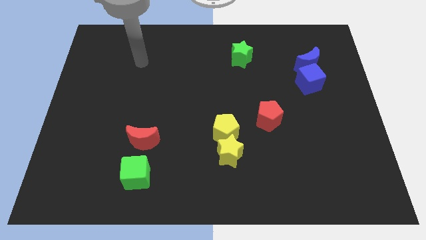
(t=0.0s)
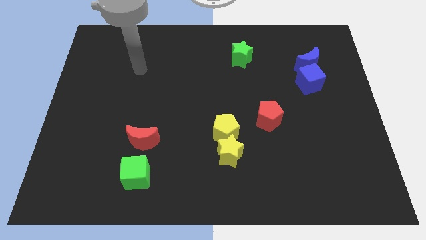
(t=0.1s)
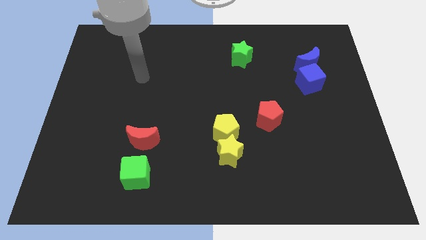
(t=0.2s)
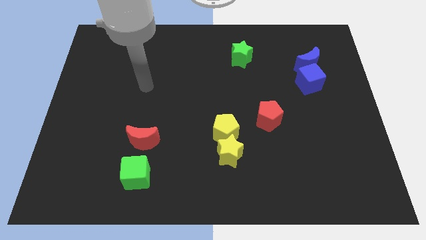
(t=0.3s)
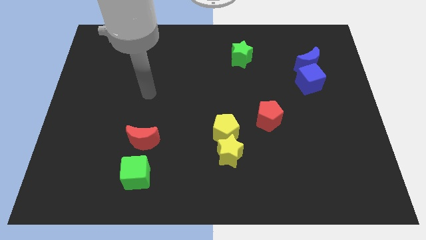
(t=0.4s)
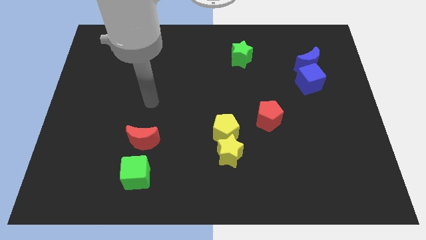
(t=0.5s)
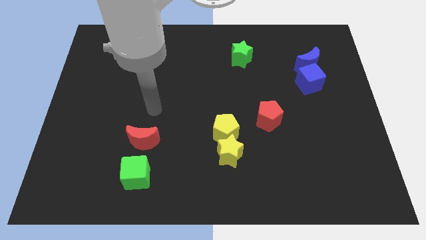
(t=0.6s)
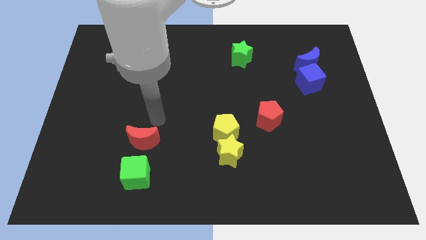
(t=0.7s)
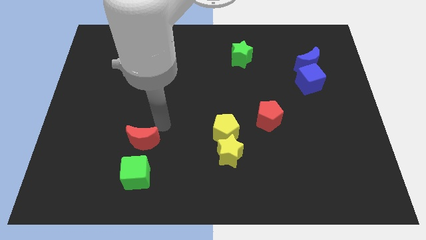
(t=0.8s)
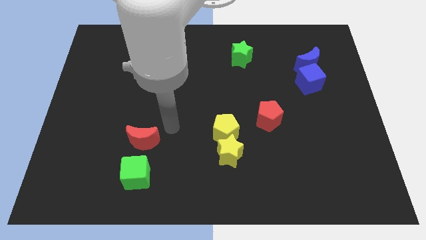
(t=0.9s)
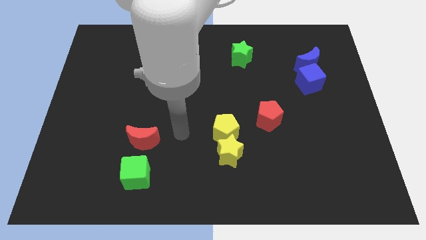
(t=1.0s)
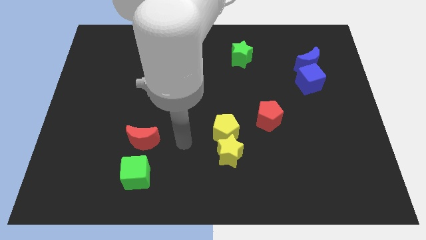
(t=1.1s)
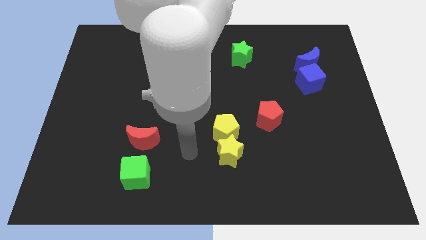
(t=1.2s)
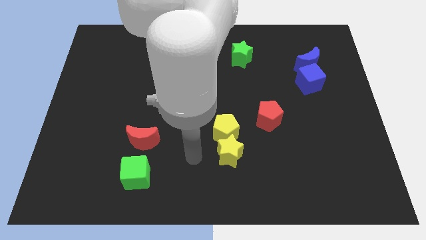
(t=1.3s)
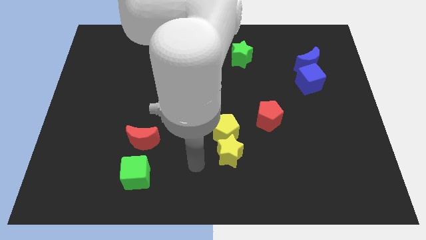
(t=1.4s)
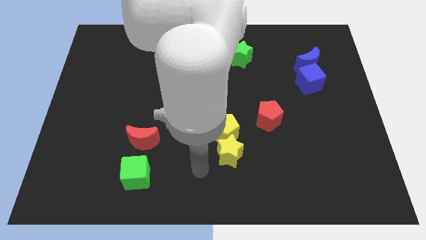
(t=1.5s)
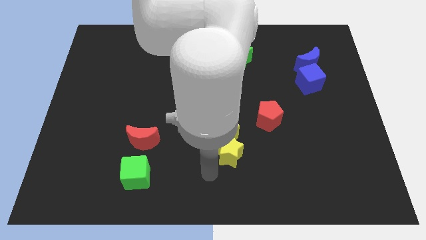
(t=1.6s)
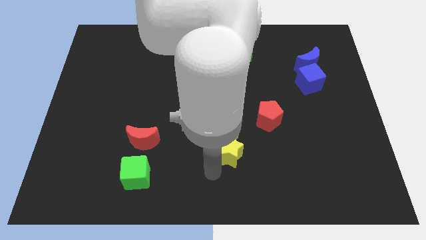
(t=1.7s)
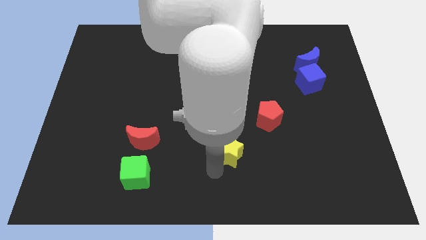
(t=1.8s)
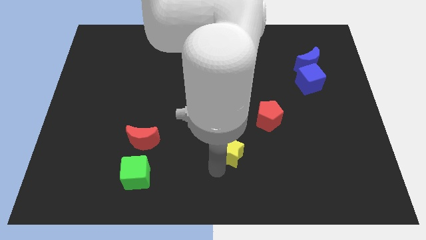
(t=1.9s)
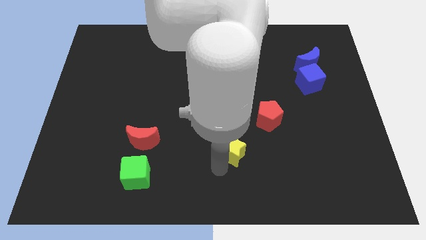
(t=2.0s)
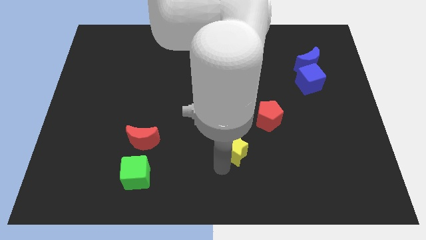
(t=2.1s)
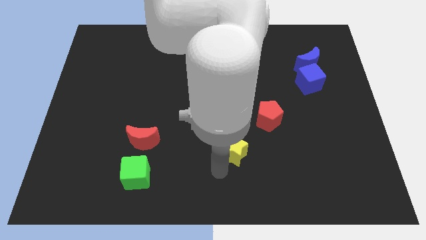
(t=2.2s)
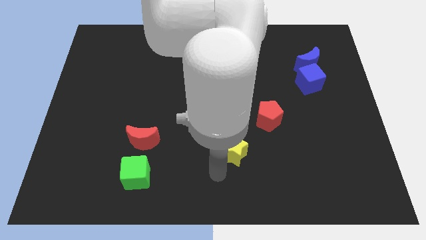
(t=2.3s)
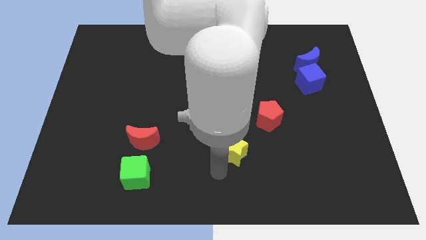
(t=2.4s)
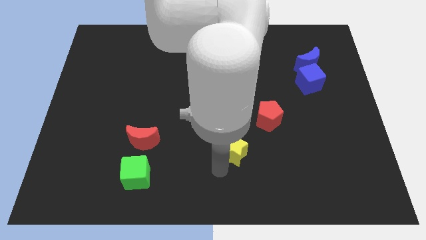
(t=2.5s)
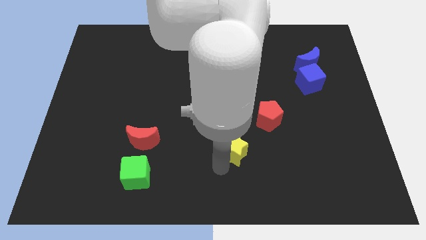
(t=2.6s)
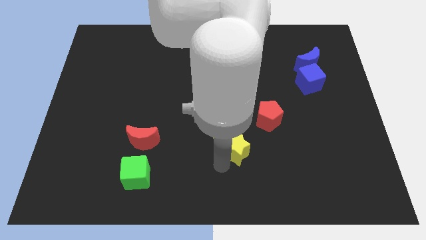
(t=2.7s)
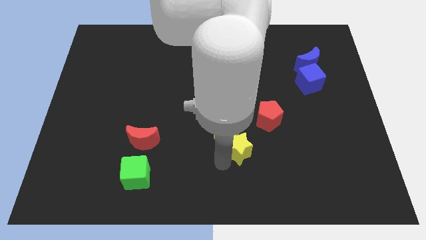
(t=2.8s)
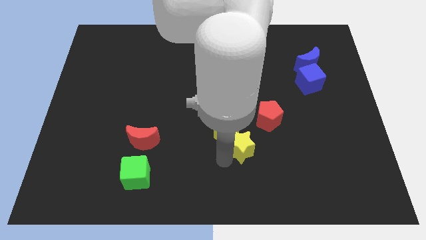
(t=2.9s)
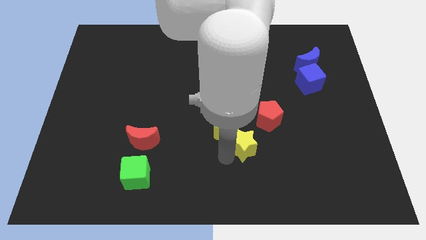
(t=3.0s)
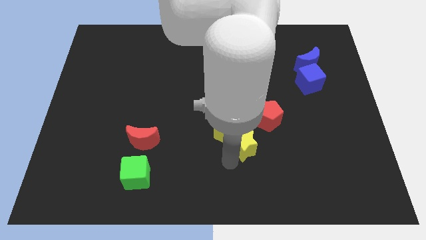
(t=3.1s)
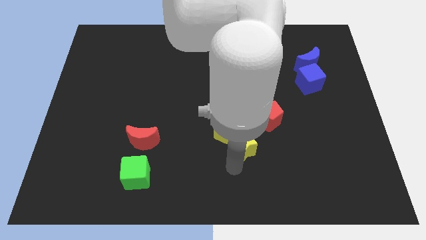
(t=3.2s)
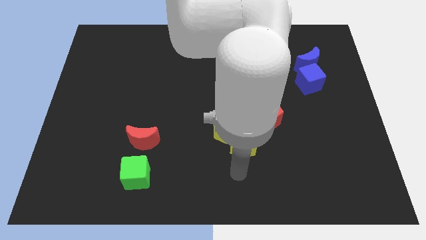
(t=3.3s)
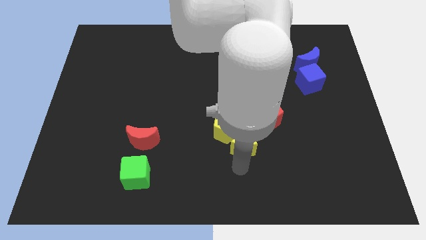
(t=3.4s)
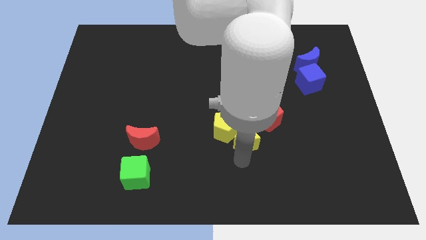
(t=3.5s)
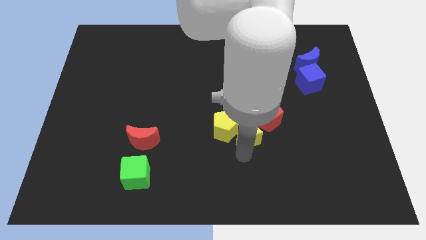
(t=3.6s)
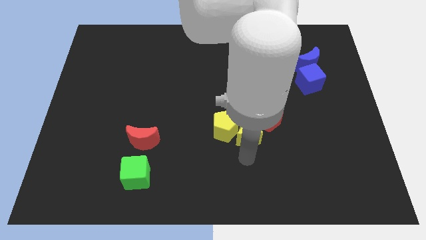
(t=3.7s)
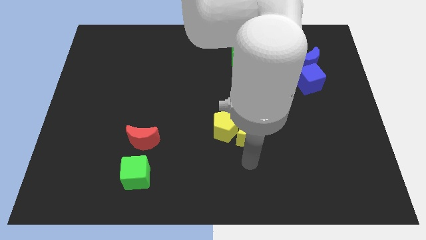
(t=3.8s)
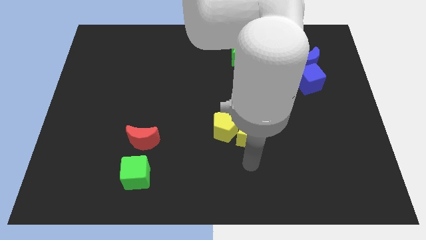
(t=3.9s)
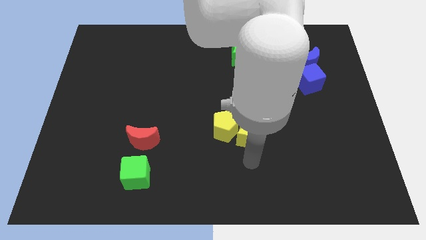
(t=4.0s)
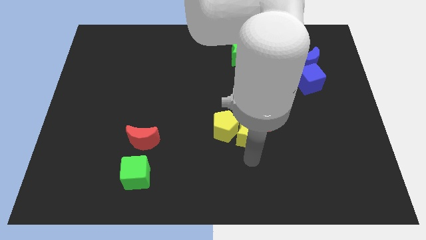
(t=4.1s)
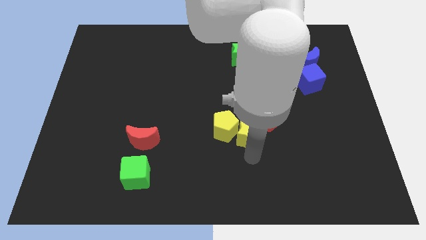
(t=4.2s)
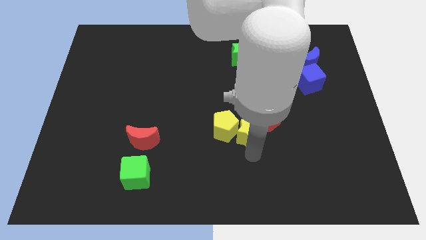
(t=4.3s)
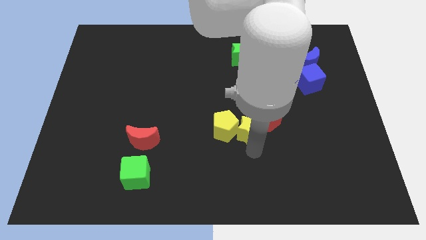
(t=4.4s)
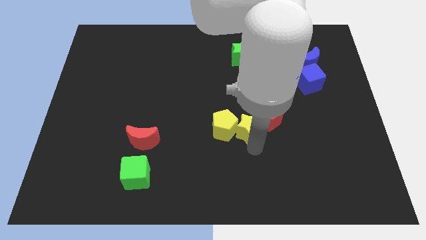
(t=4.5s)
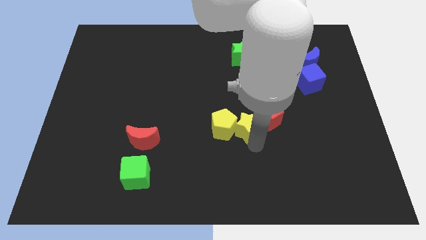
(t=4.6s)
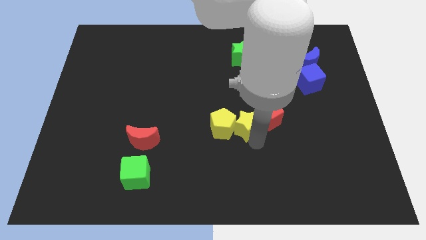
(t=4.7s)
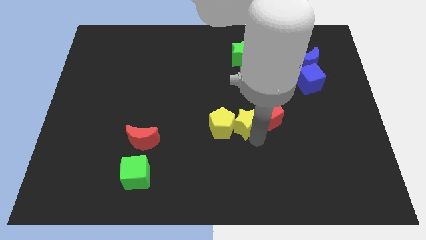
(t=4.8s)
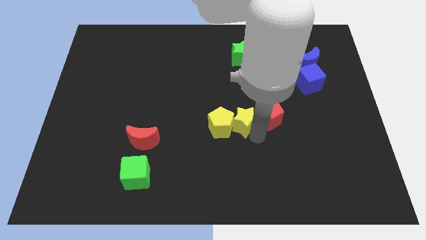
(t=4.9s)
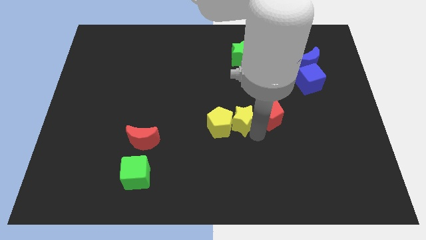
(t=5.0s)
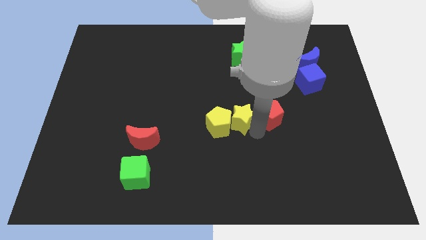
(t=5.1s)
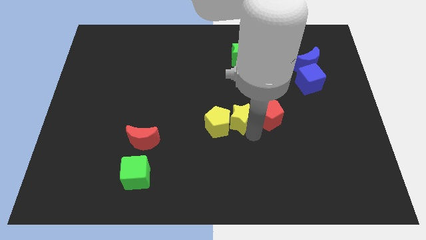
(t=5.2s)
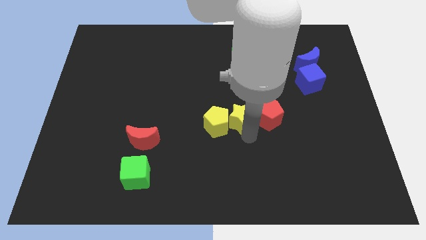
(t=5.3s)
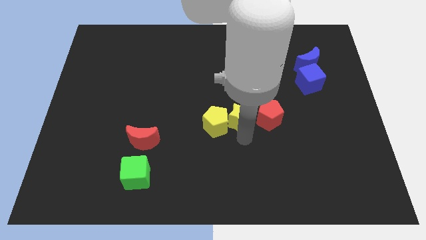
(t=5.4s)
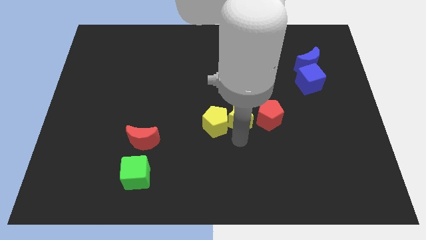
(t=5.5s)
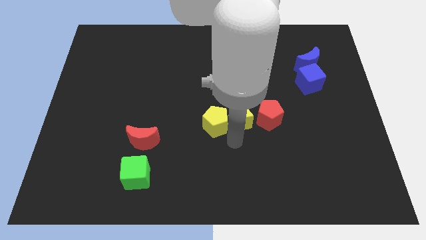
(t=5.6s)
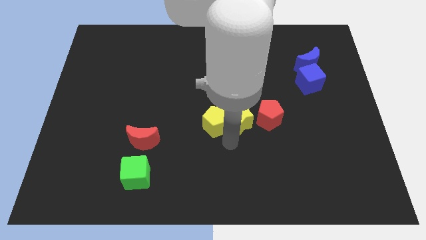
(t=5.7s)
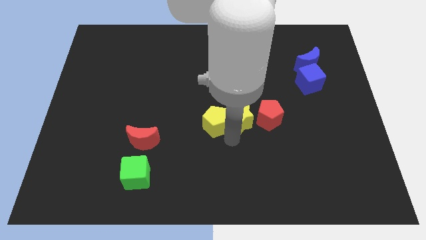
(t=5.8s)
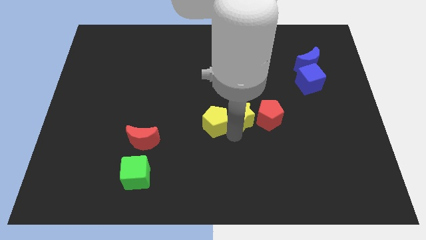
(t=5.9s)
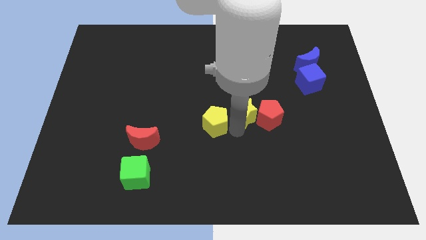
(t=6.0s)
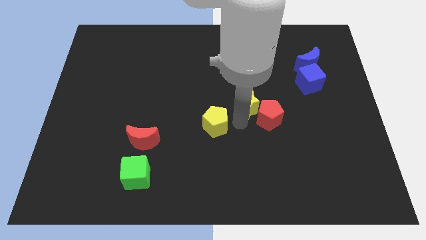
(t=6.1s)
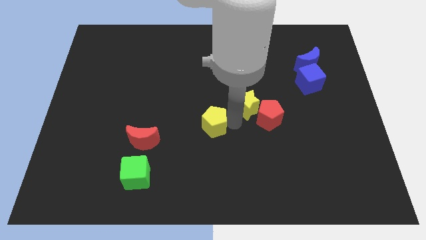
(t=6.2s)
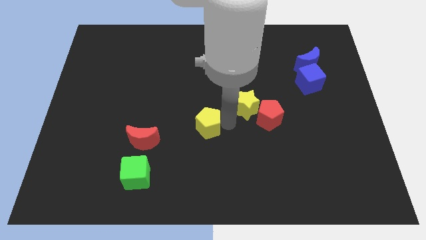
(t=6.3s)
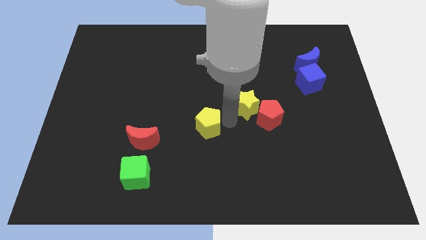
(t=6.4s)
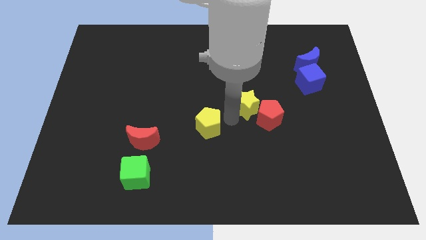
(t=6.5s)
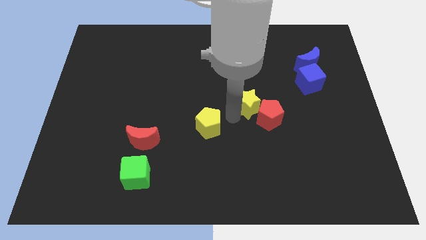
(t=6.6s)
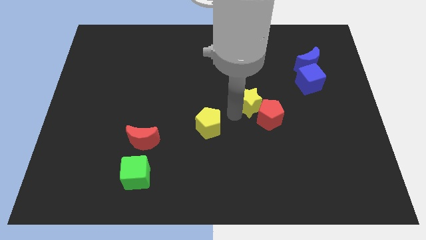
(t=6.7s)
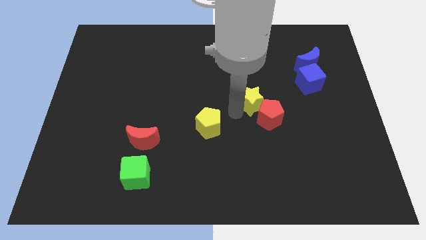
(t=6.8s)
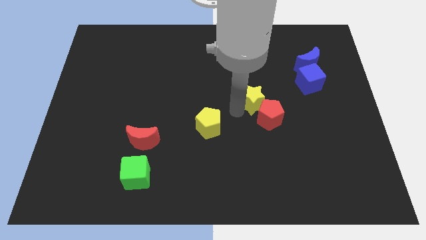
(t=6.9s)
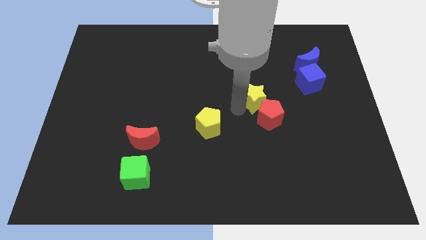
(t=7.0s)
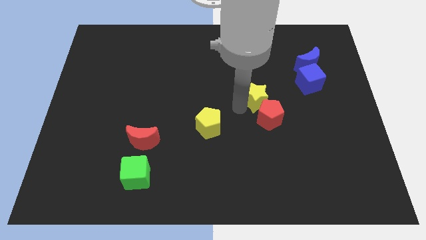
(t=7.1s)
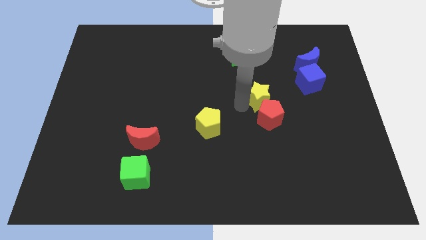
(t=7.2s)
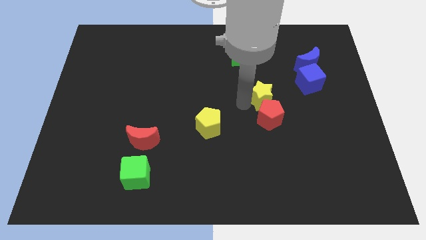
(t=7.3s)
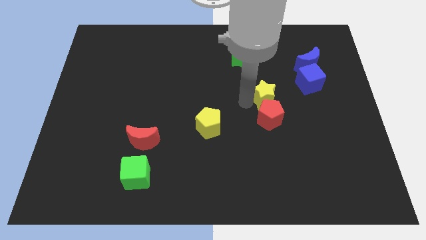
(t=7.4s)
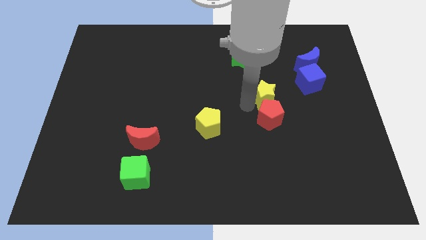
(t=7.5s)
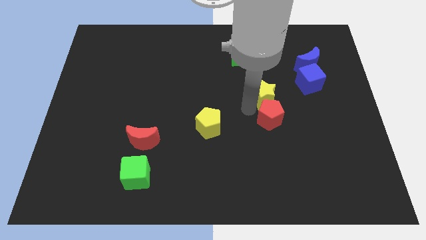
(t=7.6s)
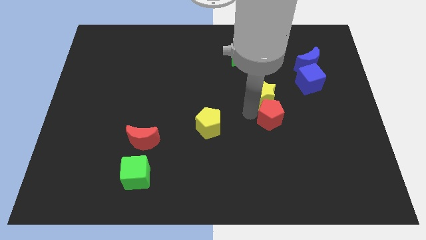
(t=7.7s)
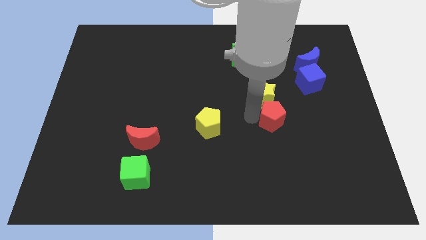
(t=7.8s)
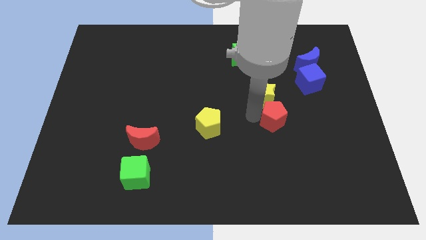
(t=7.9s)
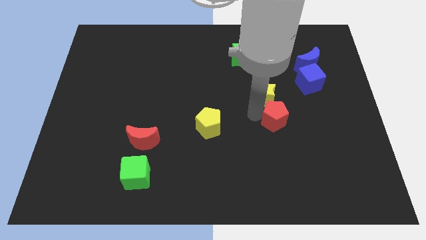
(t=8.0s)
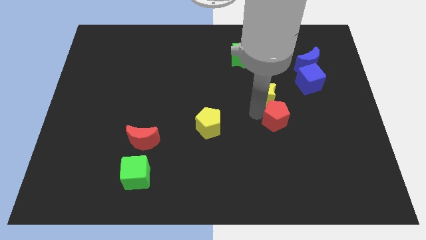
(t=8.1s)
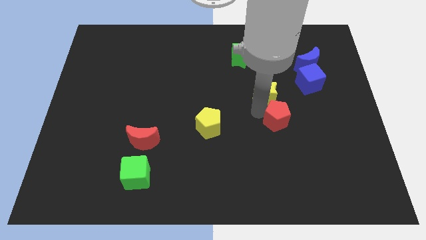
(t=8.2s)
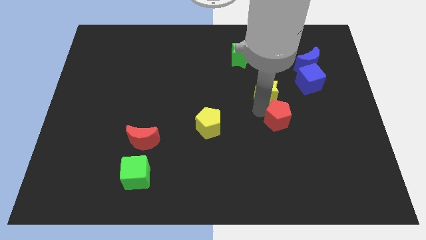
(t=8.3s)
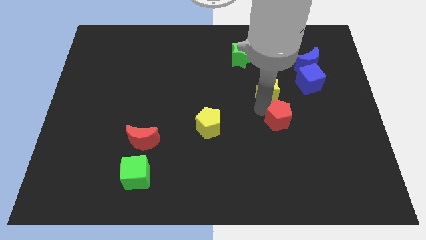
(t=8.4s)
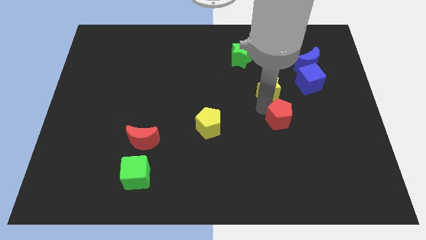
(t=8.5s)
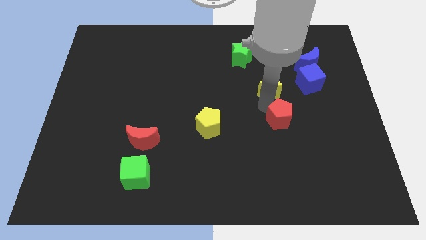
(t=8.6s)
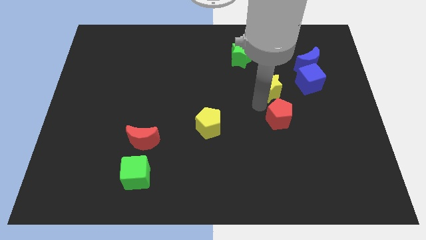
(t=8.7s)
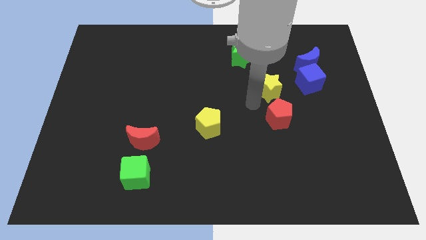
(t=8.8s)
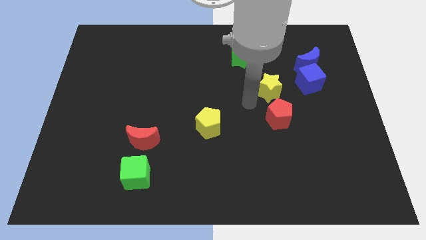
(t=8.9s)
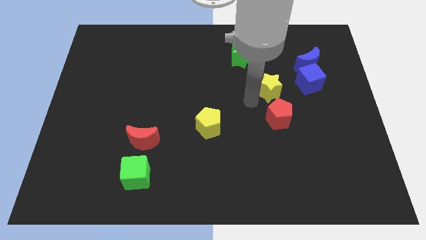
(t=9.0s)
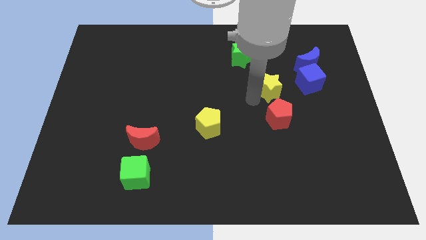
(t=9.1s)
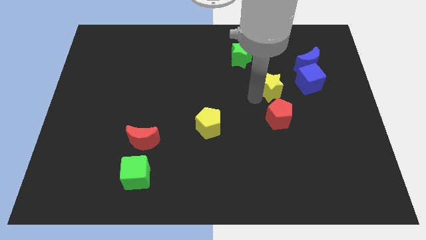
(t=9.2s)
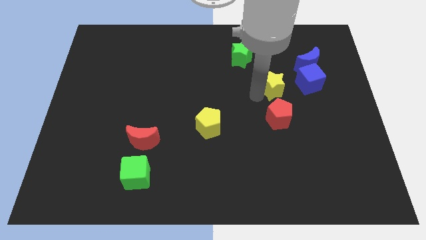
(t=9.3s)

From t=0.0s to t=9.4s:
move the yellow star to the bottom left side of the blue moon
